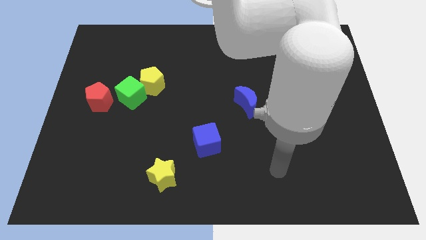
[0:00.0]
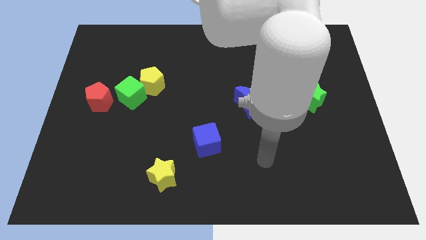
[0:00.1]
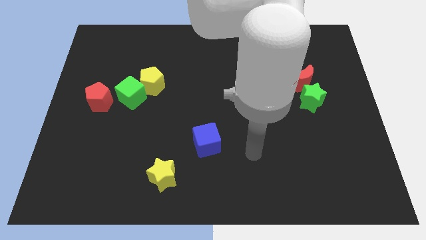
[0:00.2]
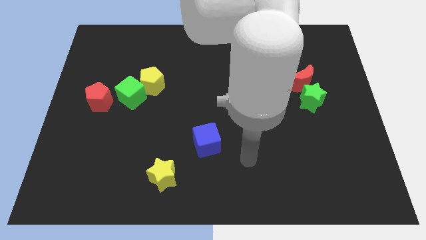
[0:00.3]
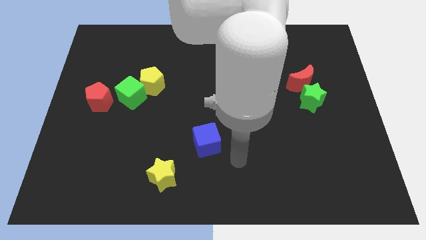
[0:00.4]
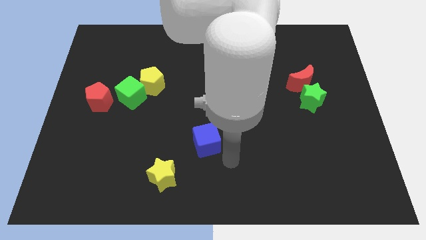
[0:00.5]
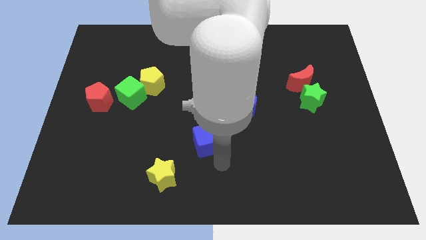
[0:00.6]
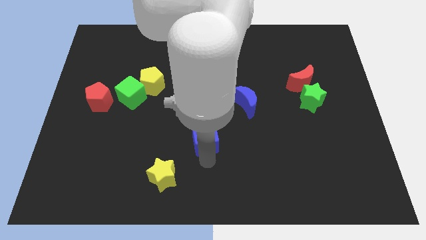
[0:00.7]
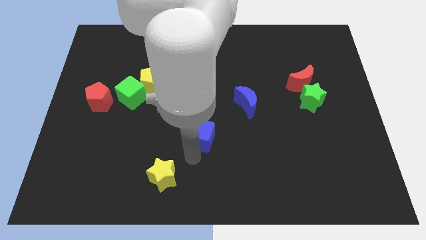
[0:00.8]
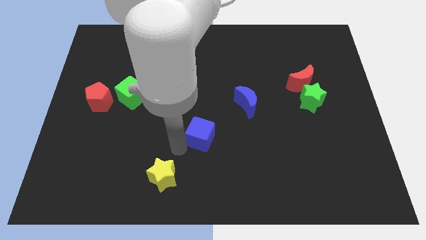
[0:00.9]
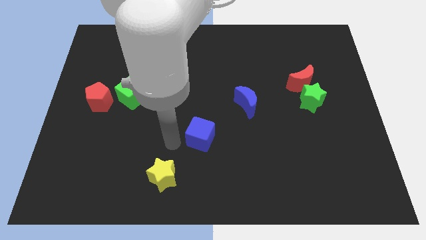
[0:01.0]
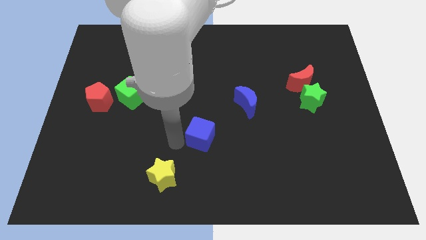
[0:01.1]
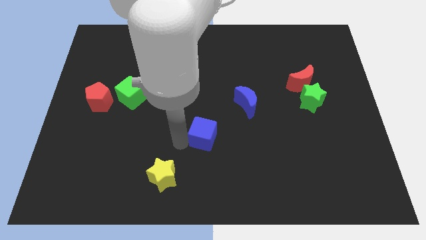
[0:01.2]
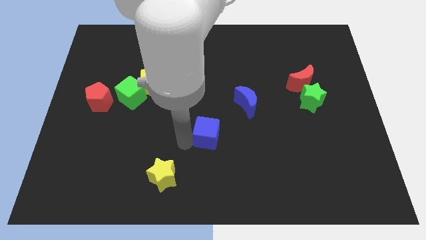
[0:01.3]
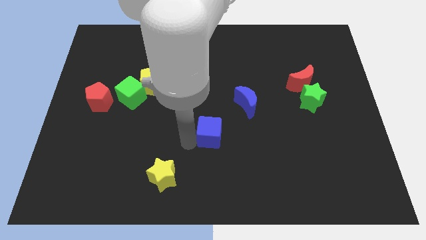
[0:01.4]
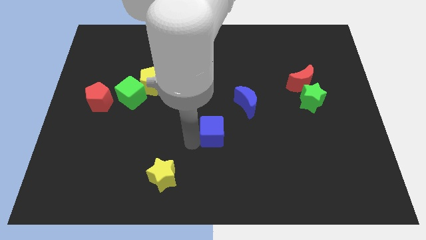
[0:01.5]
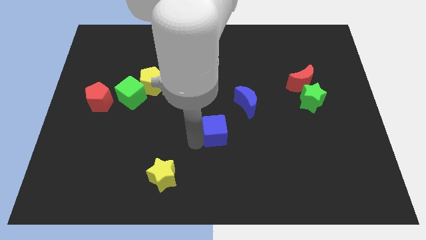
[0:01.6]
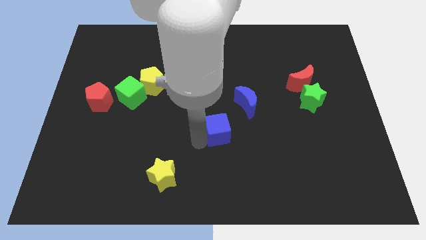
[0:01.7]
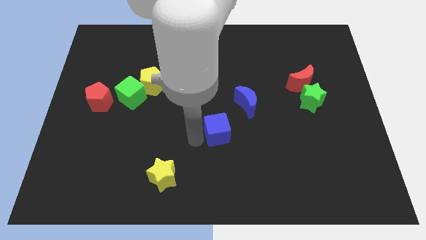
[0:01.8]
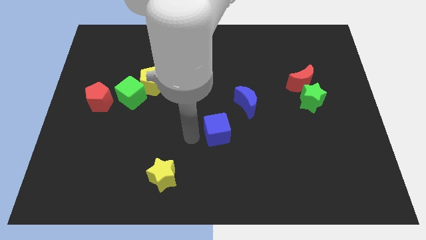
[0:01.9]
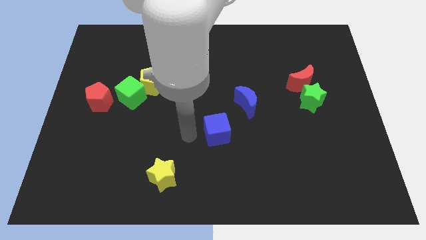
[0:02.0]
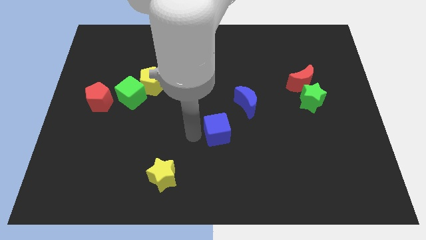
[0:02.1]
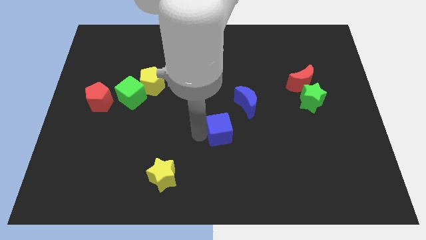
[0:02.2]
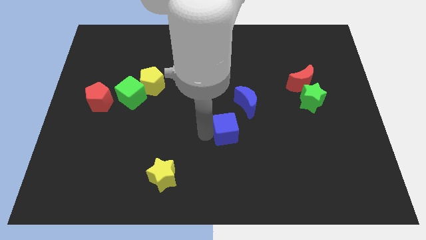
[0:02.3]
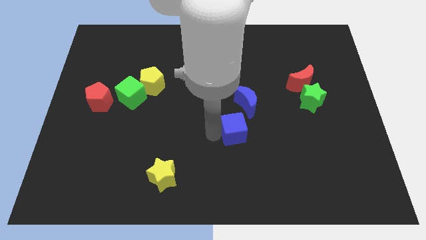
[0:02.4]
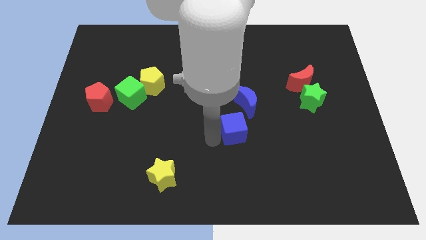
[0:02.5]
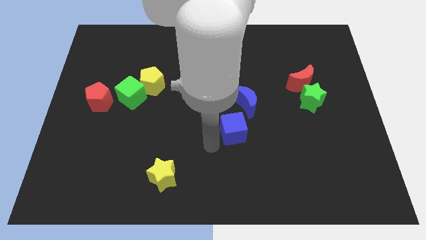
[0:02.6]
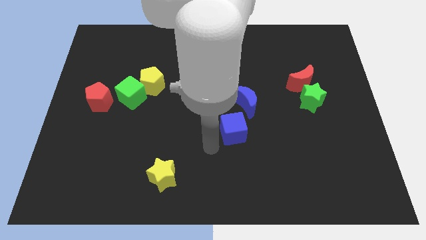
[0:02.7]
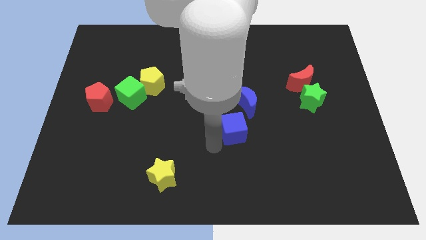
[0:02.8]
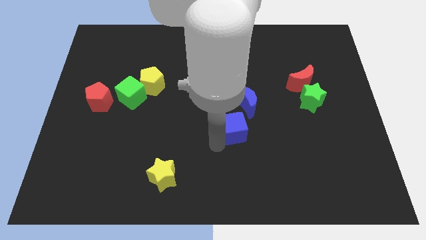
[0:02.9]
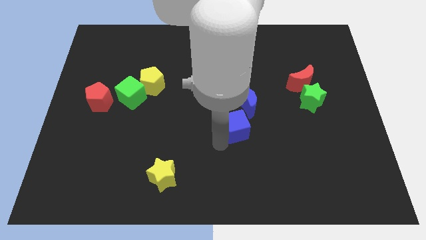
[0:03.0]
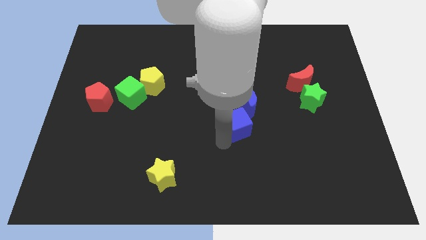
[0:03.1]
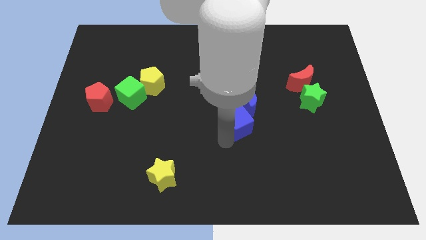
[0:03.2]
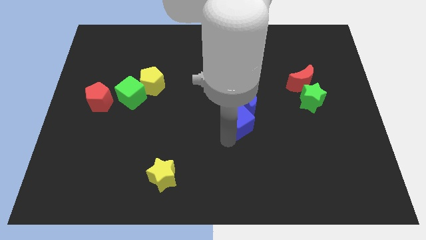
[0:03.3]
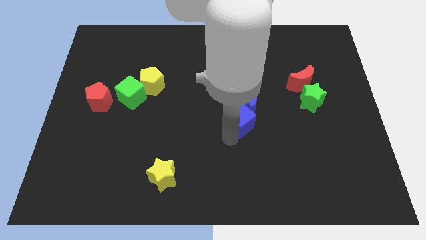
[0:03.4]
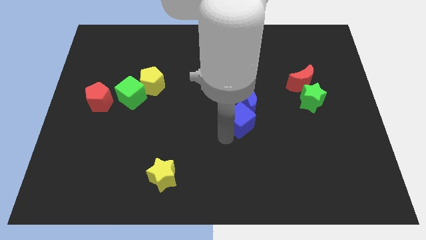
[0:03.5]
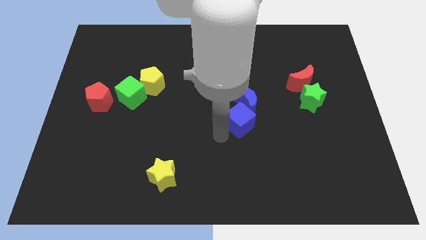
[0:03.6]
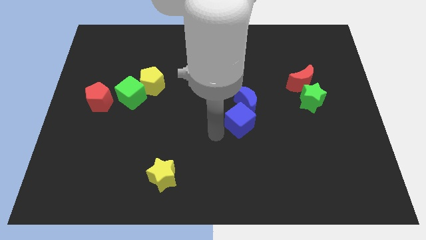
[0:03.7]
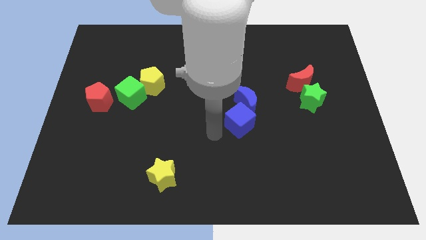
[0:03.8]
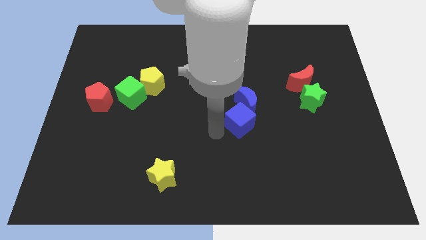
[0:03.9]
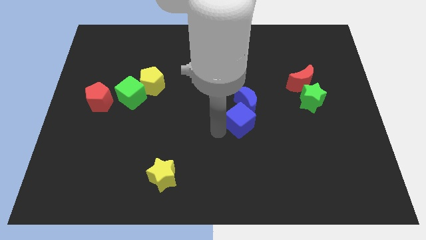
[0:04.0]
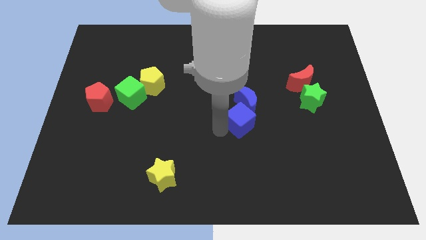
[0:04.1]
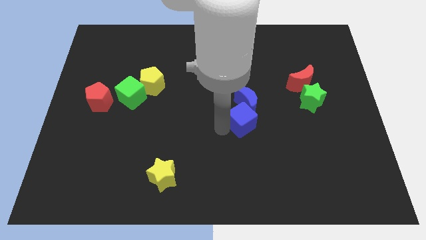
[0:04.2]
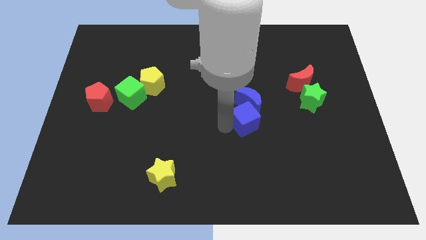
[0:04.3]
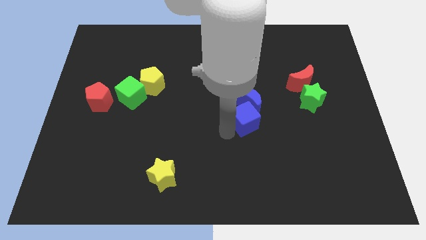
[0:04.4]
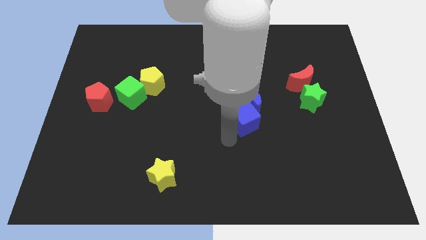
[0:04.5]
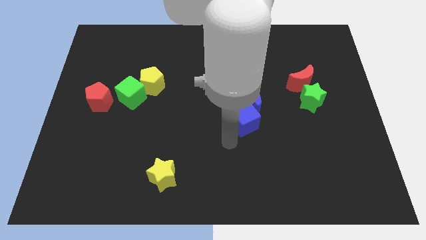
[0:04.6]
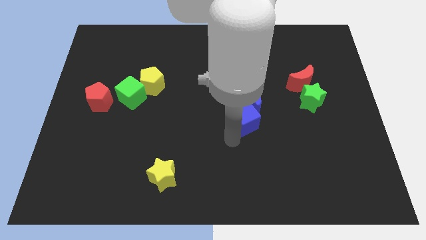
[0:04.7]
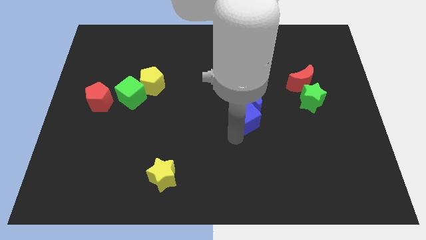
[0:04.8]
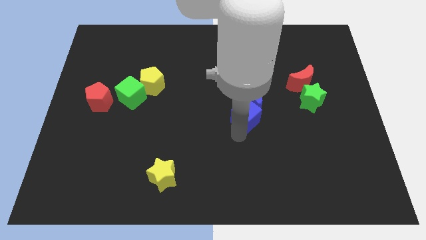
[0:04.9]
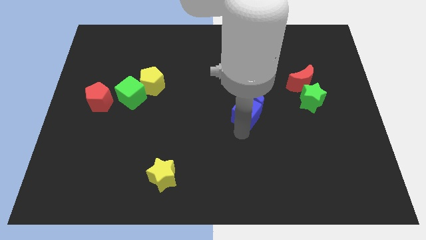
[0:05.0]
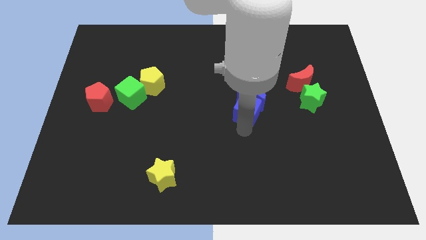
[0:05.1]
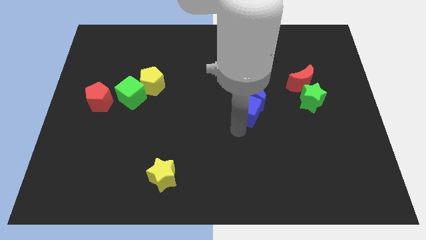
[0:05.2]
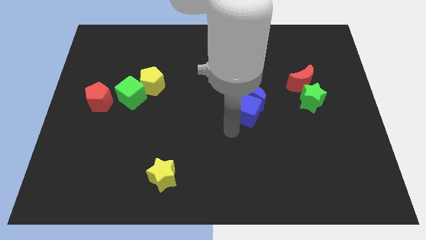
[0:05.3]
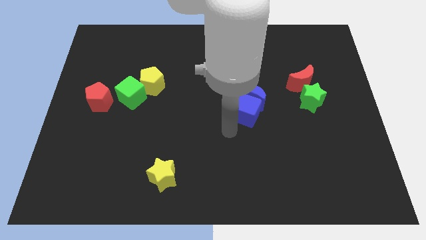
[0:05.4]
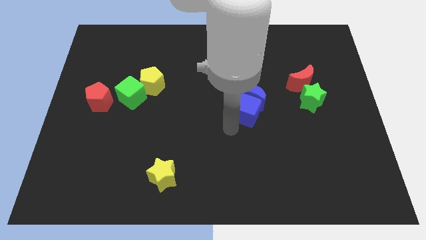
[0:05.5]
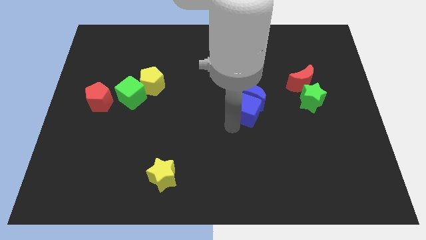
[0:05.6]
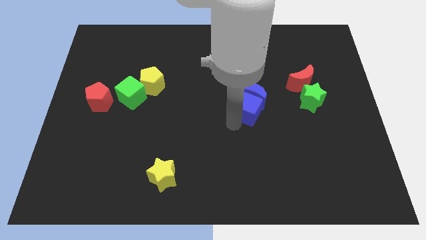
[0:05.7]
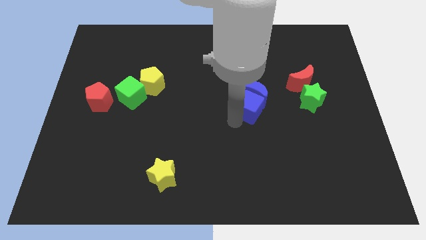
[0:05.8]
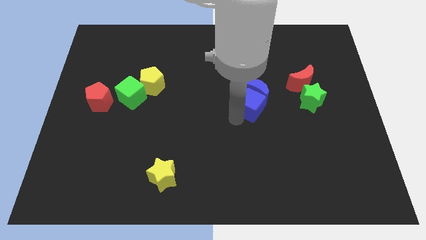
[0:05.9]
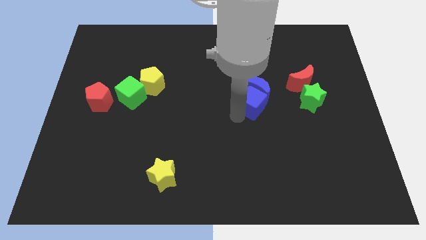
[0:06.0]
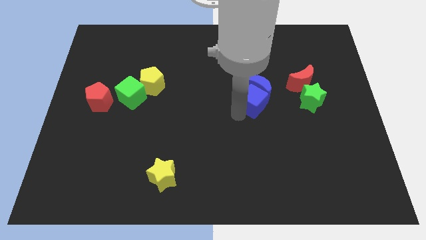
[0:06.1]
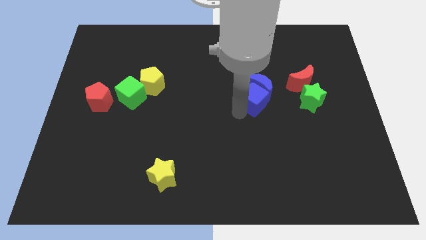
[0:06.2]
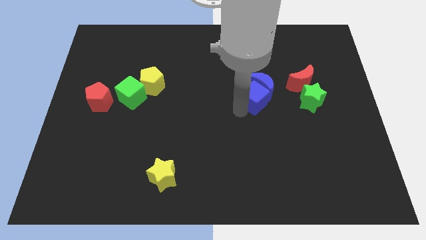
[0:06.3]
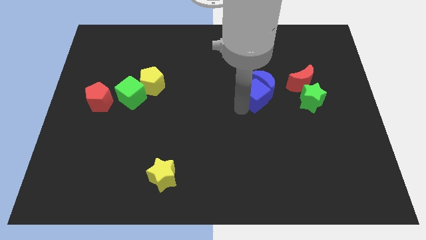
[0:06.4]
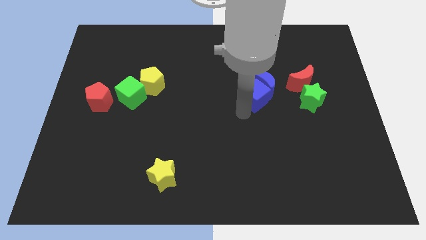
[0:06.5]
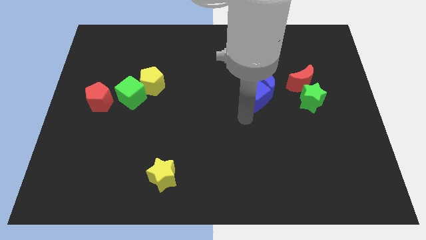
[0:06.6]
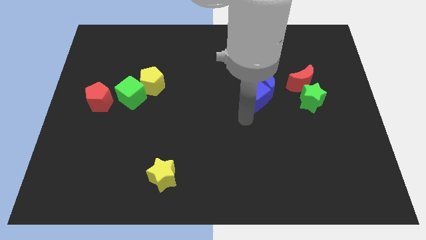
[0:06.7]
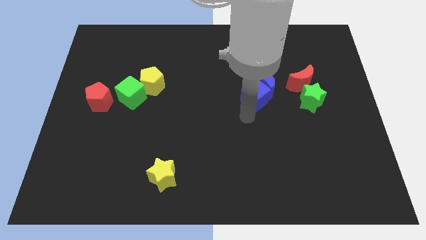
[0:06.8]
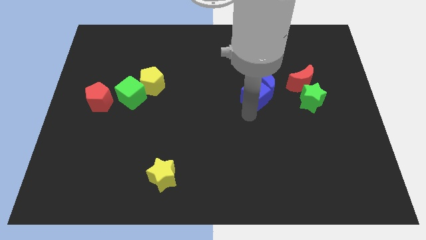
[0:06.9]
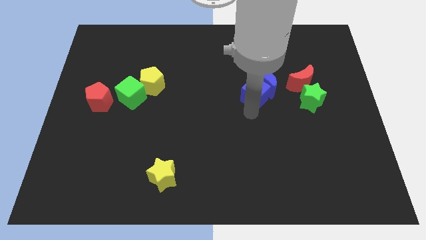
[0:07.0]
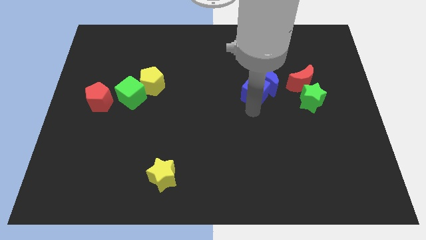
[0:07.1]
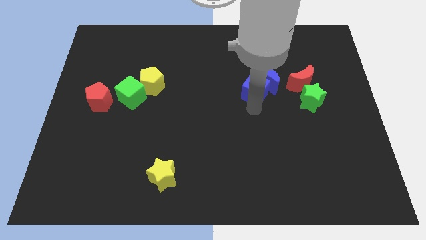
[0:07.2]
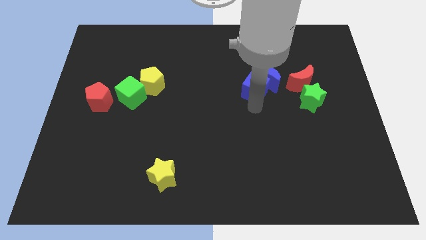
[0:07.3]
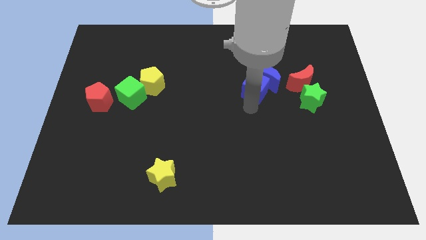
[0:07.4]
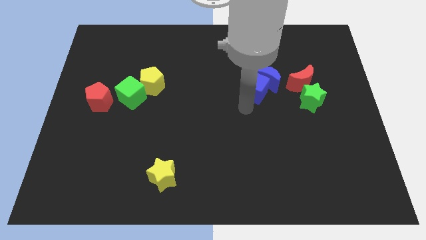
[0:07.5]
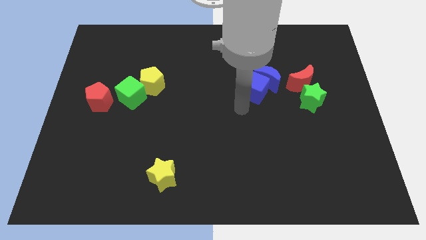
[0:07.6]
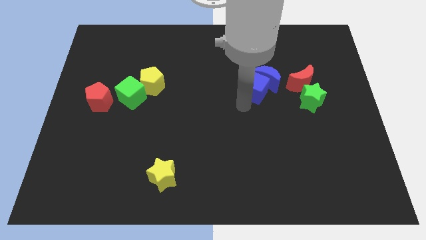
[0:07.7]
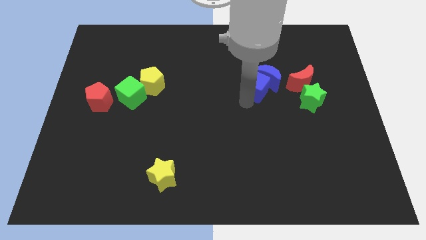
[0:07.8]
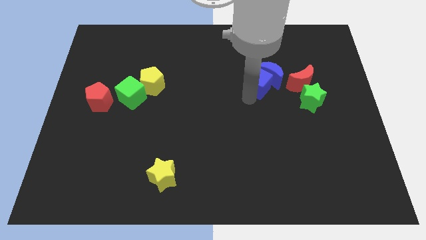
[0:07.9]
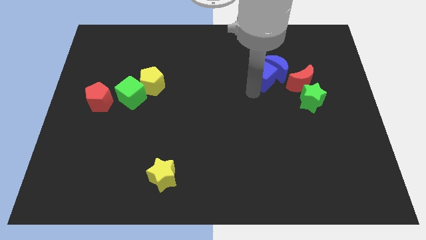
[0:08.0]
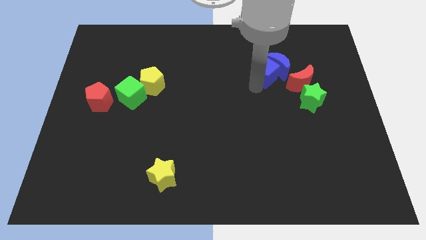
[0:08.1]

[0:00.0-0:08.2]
put the blue cube to the top left side of the red moon
